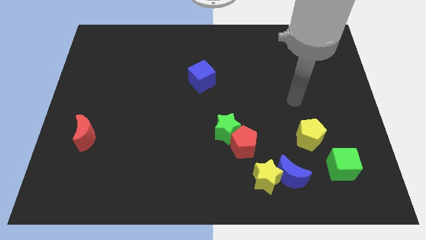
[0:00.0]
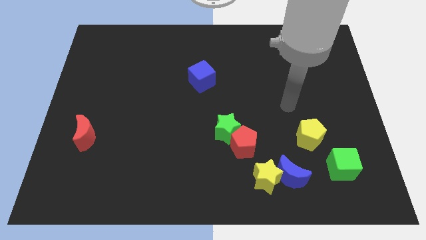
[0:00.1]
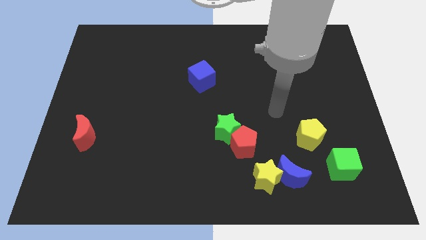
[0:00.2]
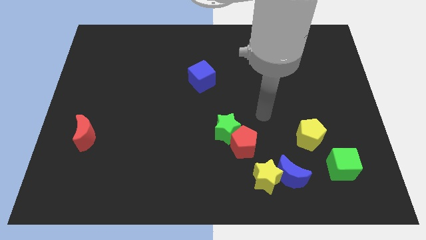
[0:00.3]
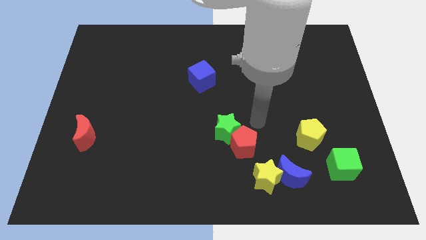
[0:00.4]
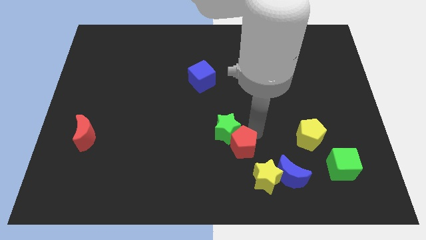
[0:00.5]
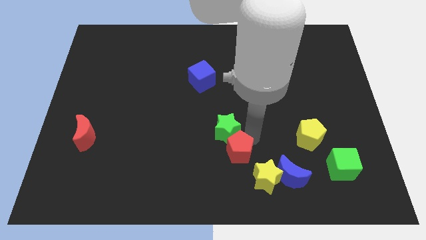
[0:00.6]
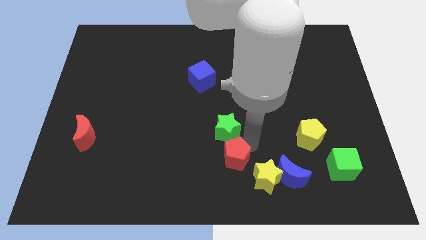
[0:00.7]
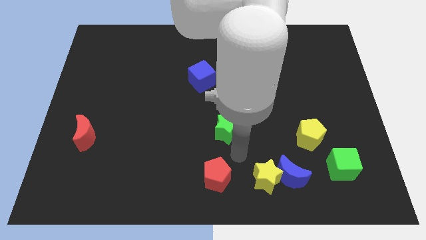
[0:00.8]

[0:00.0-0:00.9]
move the green star away from the red pentagon

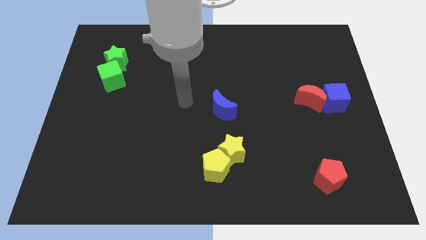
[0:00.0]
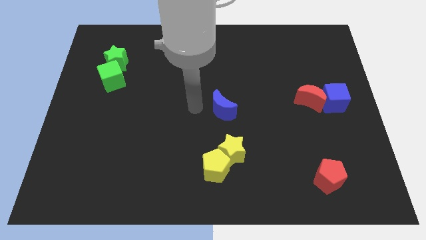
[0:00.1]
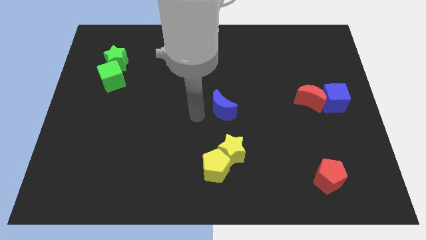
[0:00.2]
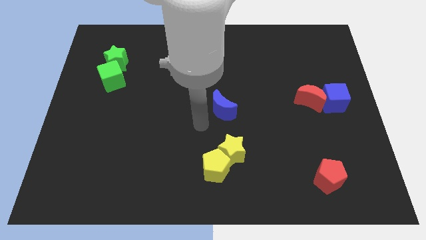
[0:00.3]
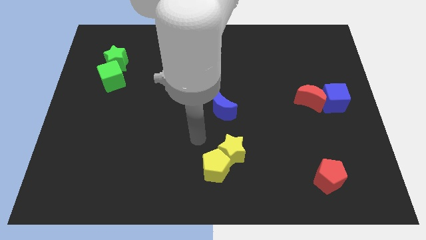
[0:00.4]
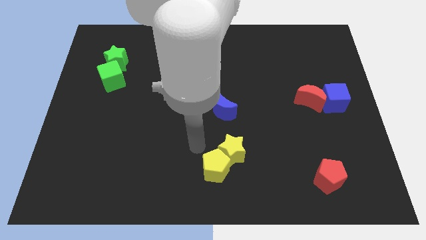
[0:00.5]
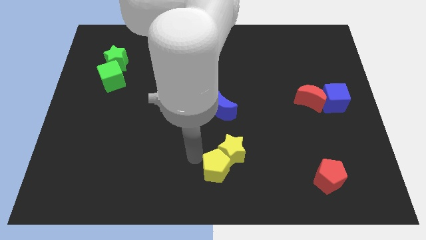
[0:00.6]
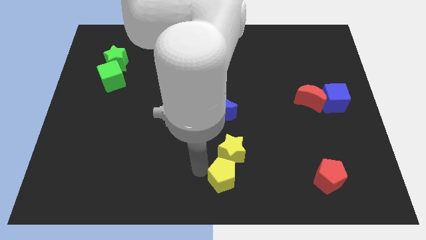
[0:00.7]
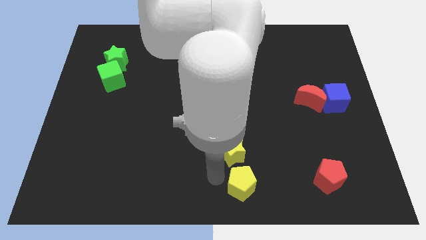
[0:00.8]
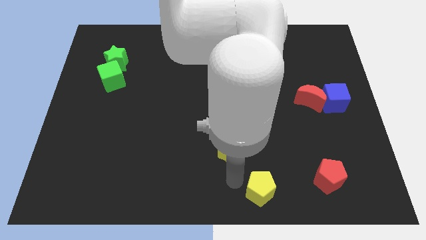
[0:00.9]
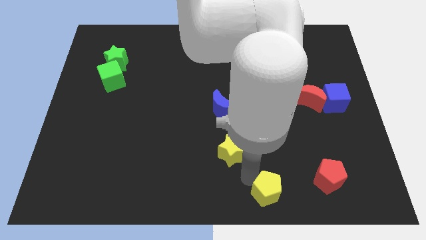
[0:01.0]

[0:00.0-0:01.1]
separate the yellow star from the yellow pentagon

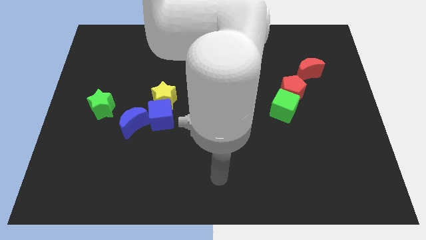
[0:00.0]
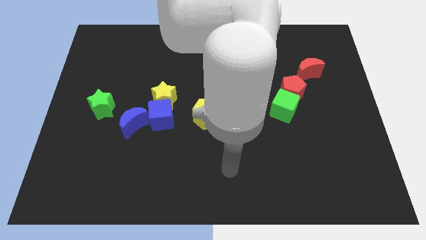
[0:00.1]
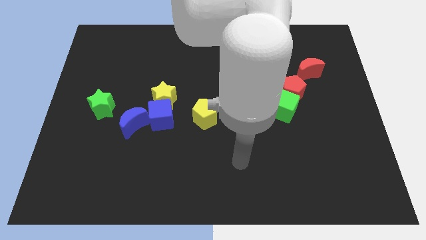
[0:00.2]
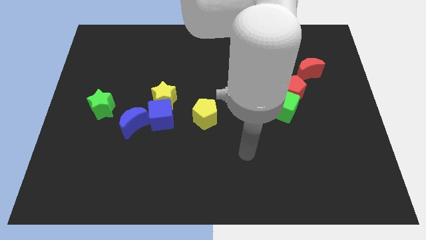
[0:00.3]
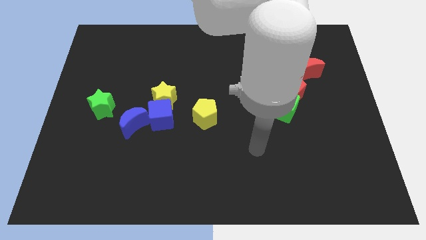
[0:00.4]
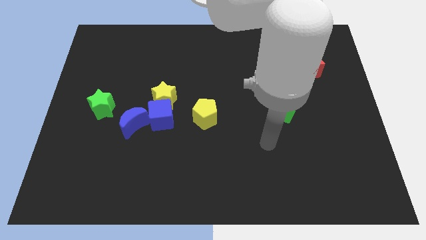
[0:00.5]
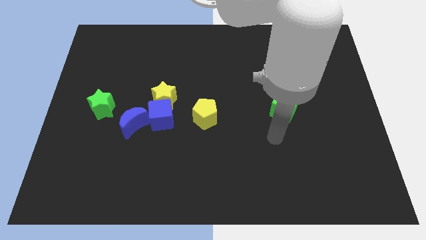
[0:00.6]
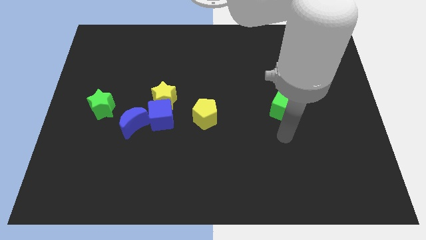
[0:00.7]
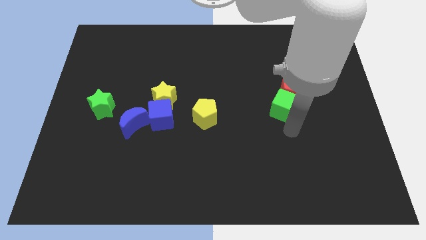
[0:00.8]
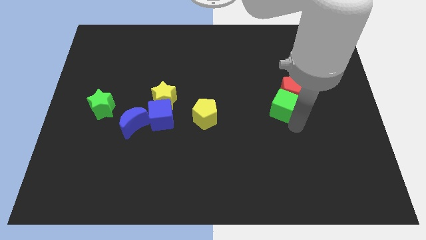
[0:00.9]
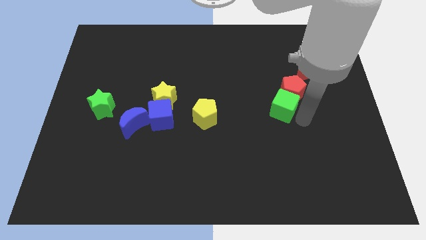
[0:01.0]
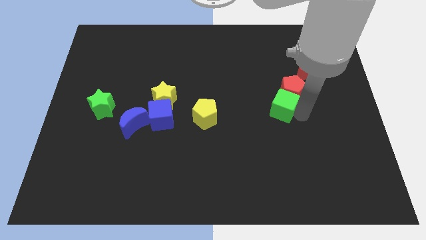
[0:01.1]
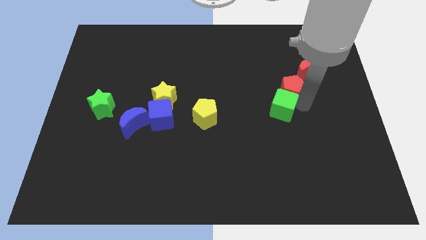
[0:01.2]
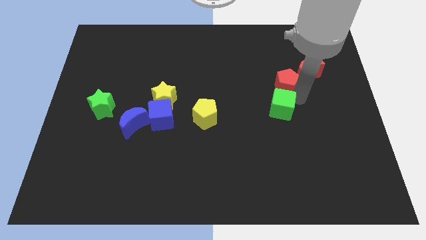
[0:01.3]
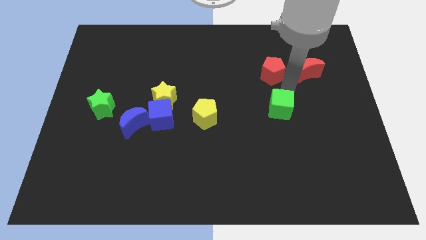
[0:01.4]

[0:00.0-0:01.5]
move the green cube away from the red pentagon

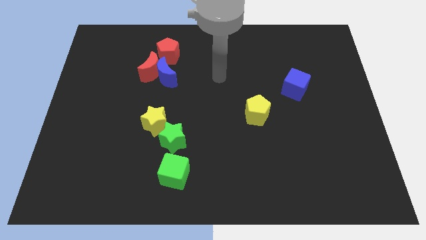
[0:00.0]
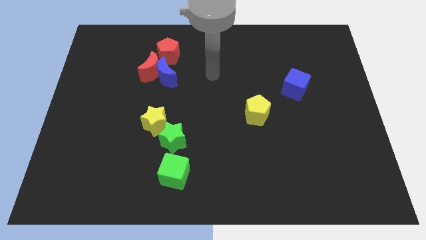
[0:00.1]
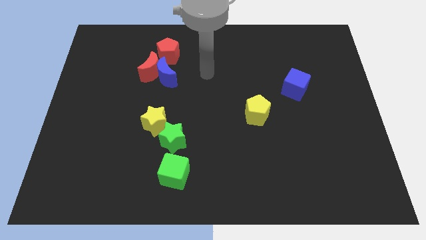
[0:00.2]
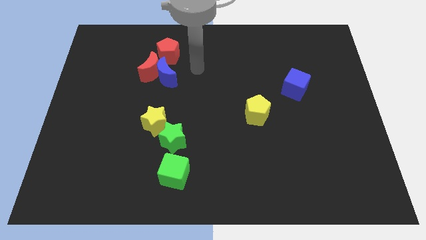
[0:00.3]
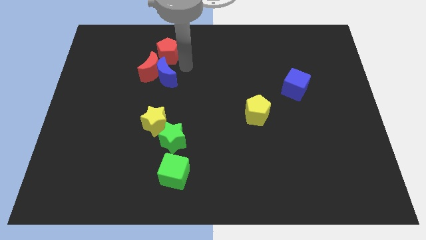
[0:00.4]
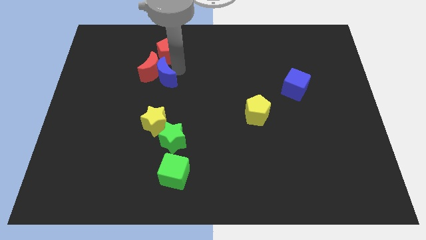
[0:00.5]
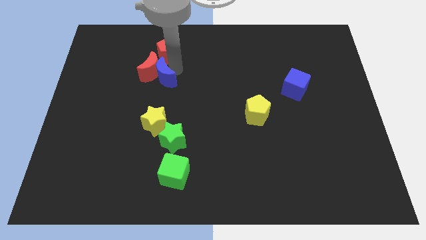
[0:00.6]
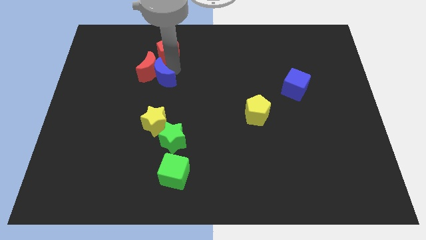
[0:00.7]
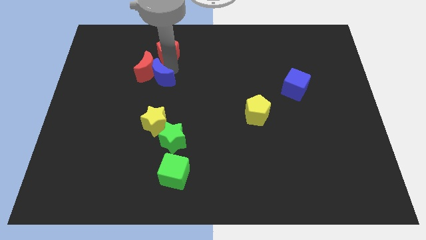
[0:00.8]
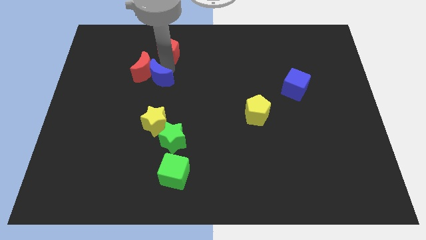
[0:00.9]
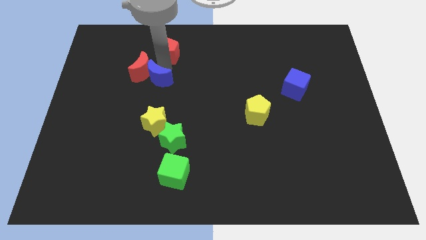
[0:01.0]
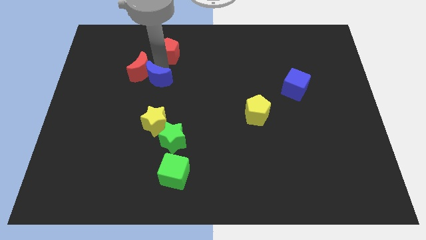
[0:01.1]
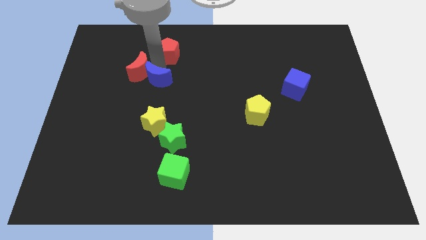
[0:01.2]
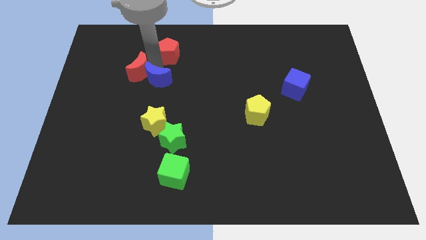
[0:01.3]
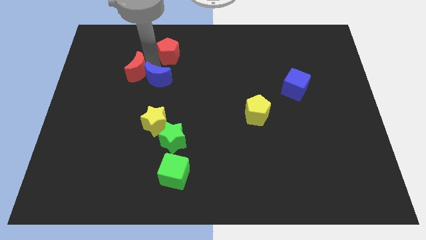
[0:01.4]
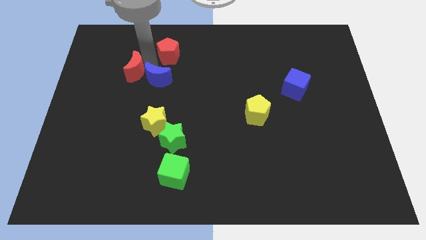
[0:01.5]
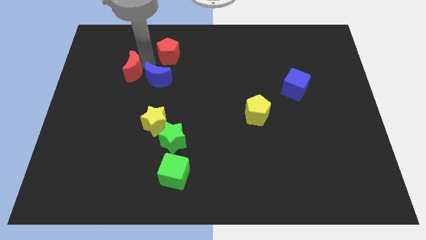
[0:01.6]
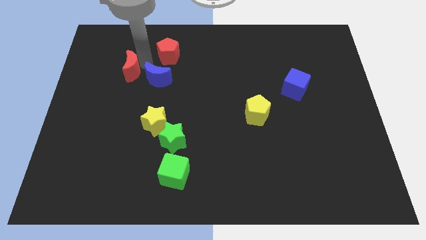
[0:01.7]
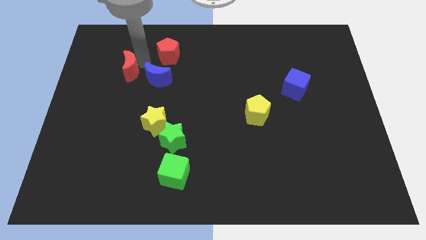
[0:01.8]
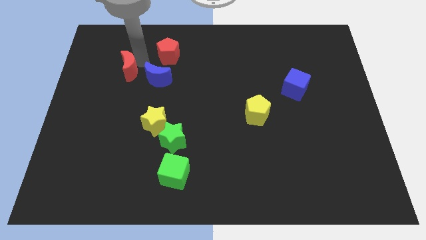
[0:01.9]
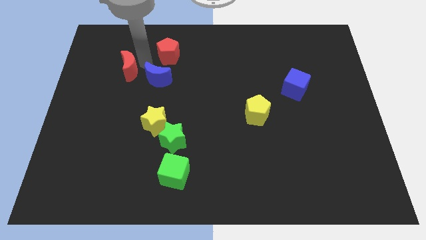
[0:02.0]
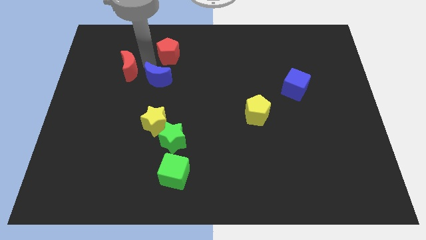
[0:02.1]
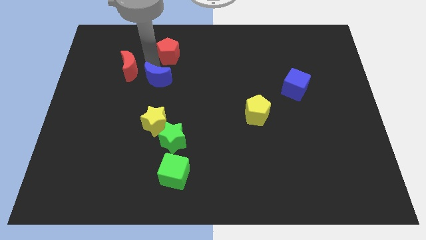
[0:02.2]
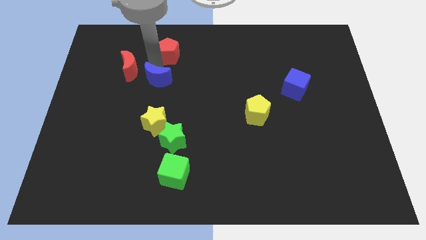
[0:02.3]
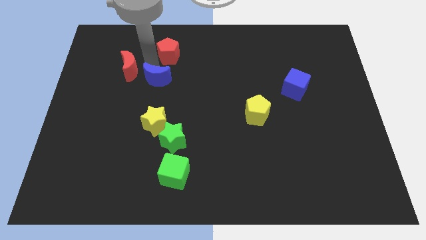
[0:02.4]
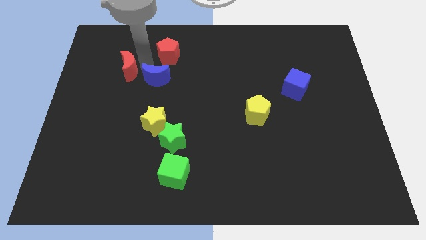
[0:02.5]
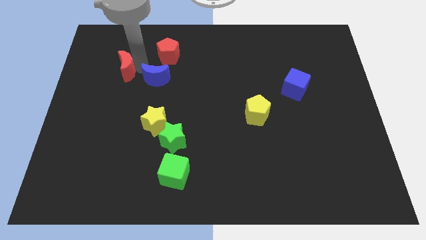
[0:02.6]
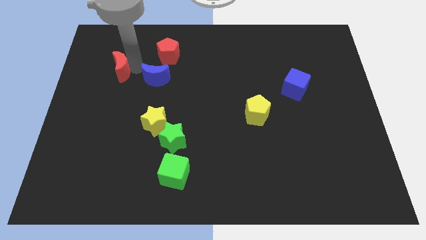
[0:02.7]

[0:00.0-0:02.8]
move the red moon away from the blue moon and red pentagon

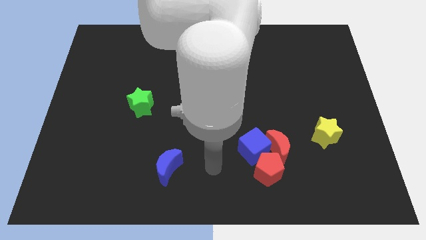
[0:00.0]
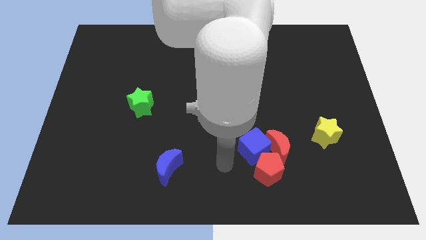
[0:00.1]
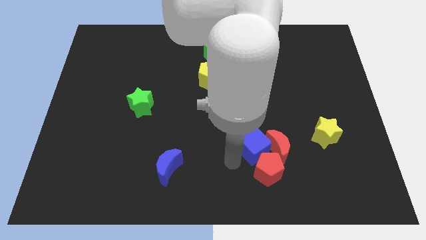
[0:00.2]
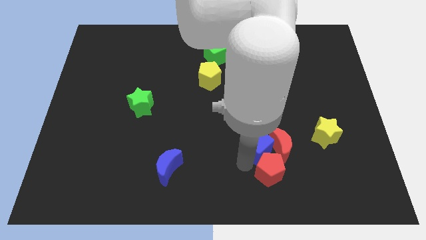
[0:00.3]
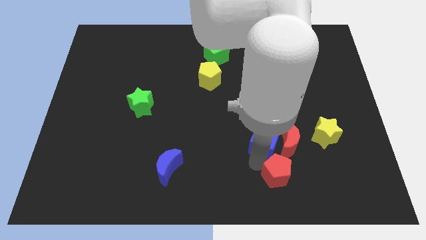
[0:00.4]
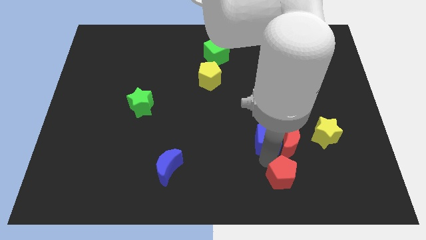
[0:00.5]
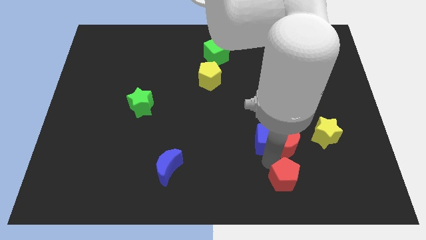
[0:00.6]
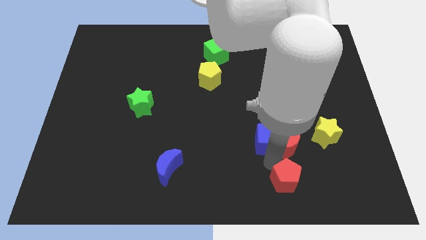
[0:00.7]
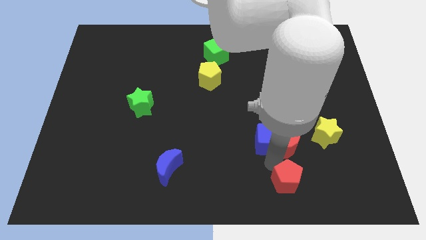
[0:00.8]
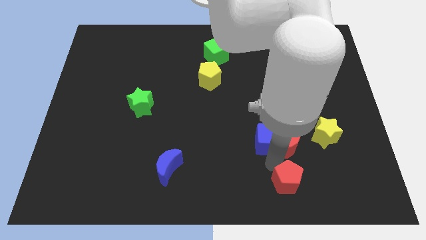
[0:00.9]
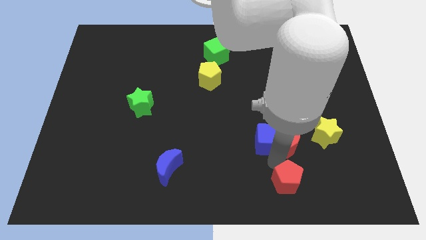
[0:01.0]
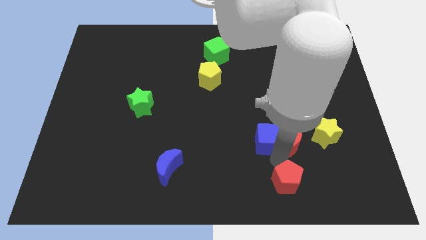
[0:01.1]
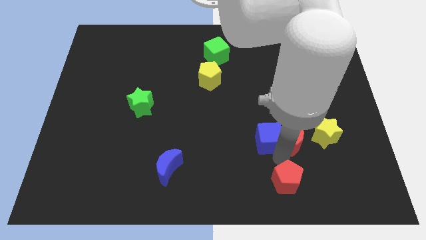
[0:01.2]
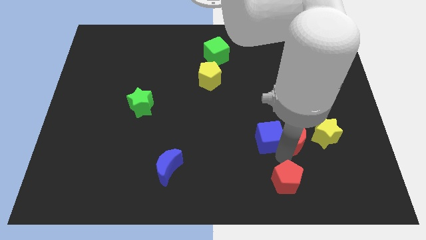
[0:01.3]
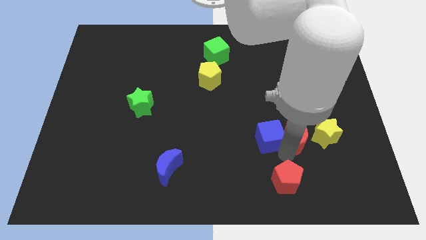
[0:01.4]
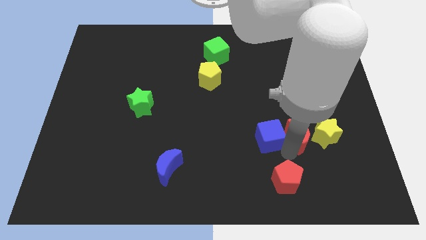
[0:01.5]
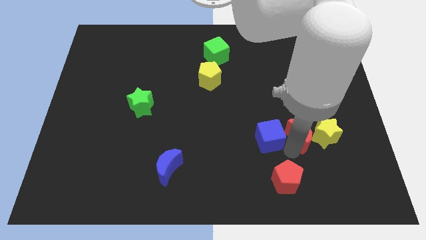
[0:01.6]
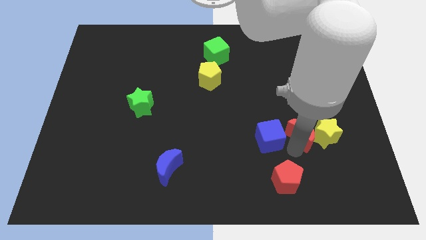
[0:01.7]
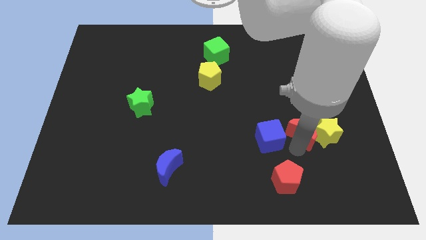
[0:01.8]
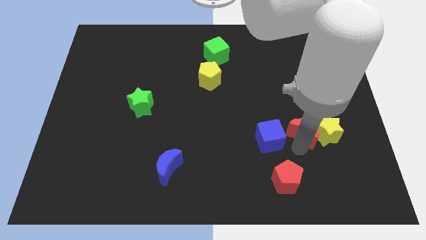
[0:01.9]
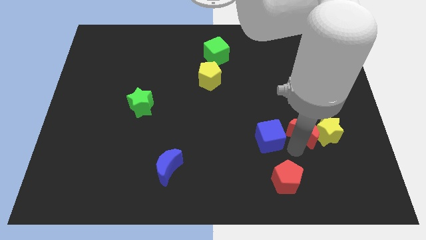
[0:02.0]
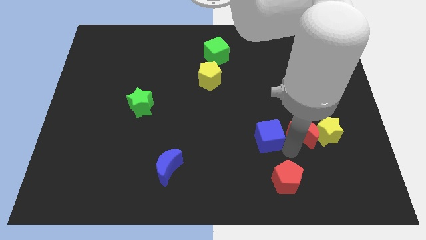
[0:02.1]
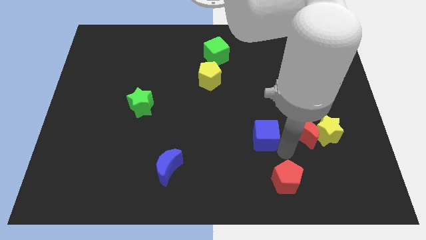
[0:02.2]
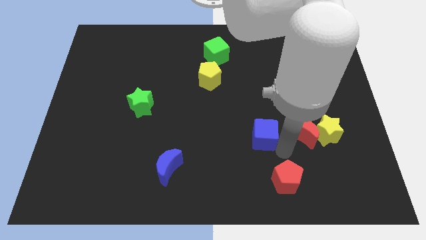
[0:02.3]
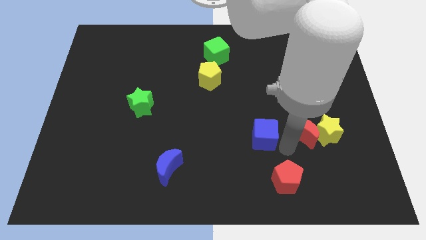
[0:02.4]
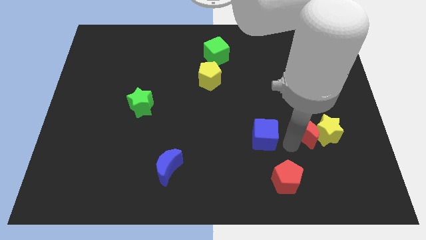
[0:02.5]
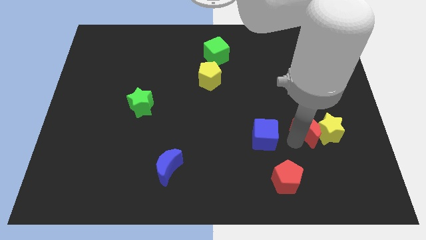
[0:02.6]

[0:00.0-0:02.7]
move the red moon away from the blue cube and red pentagon

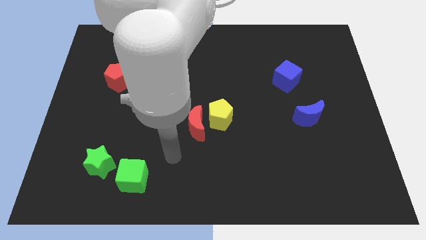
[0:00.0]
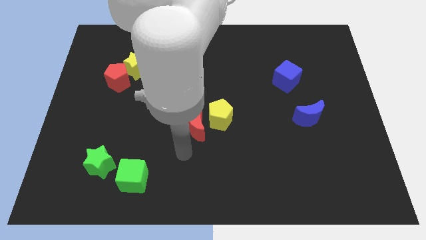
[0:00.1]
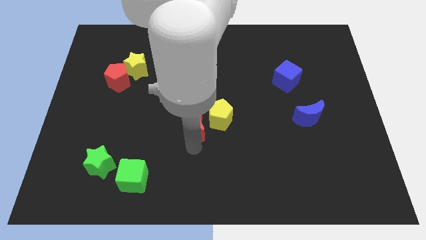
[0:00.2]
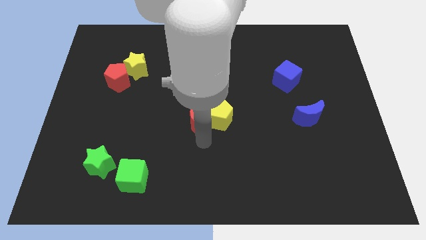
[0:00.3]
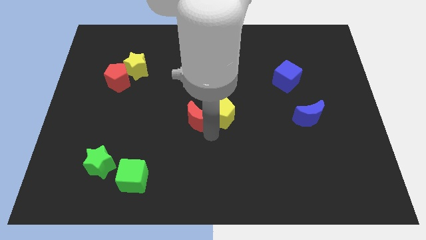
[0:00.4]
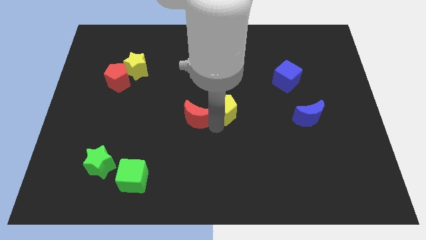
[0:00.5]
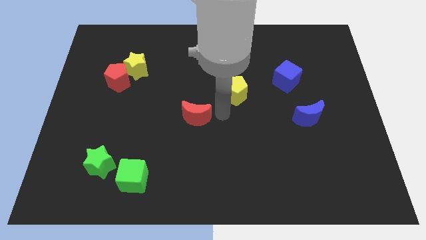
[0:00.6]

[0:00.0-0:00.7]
separate the red moon from the yellow pentagon
